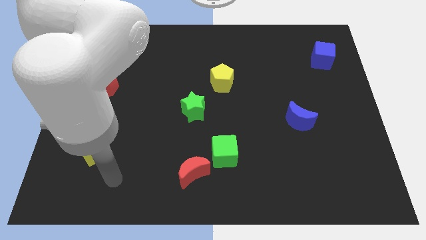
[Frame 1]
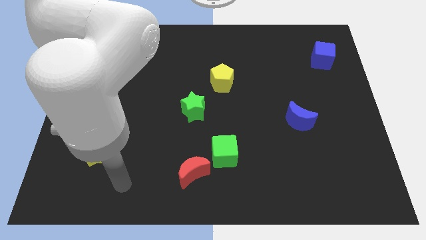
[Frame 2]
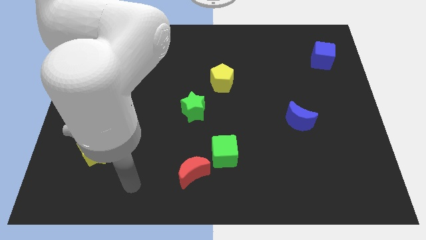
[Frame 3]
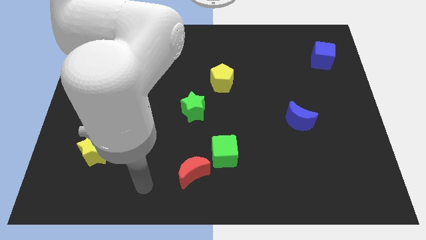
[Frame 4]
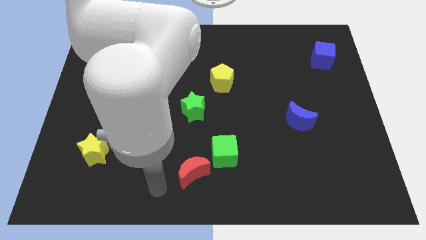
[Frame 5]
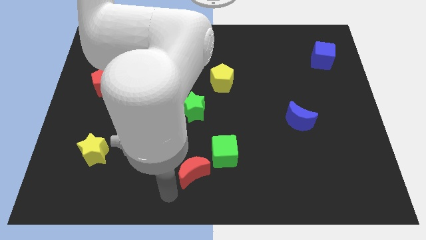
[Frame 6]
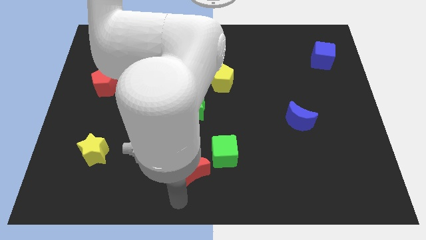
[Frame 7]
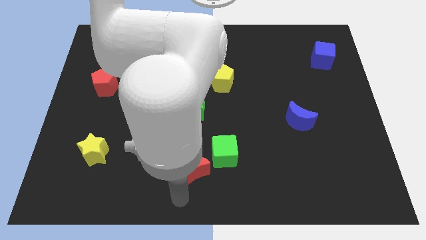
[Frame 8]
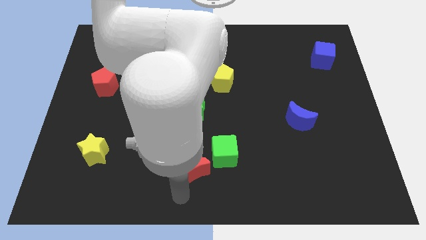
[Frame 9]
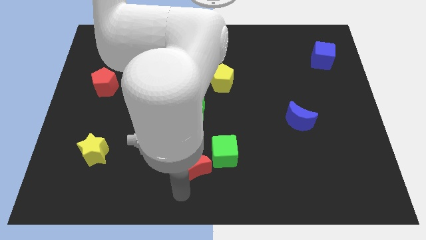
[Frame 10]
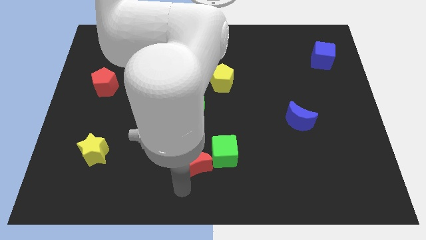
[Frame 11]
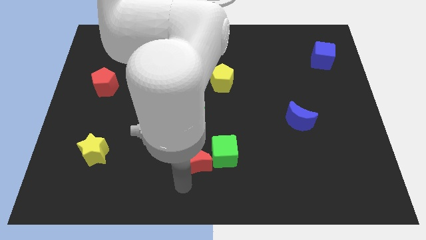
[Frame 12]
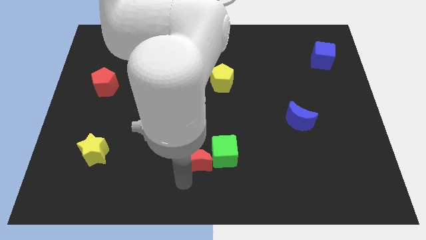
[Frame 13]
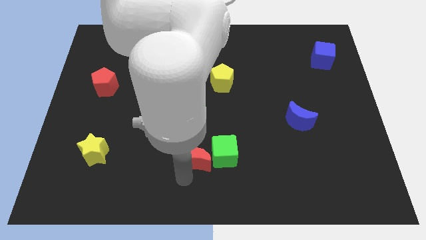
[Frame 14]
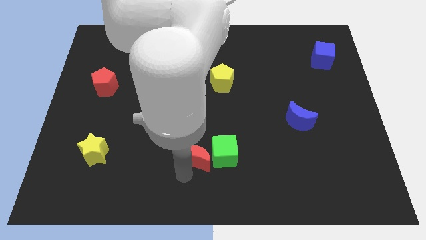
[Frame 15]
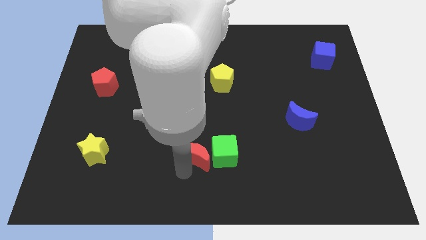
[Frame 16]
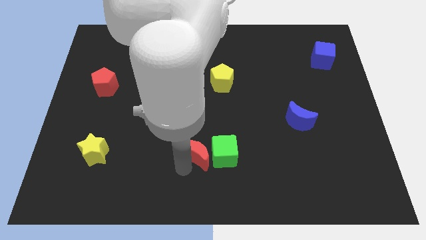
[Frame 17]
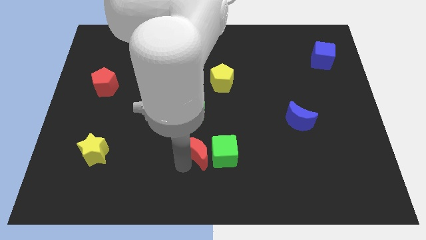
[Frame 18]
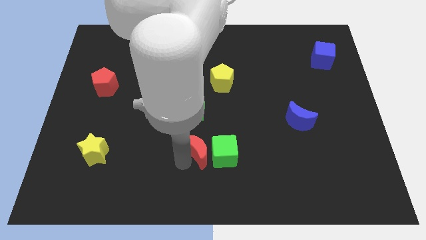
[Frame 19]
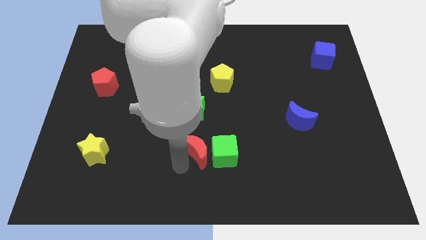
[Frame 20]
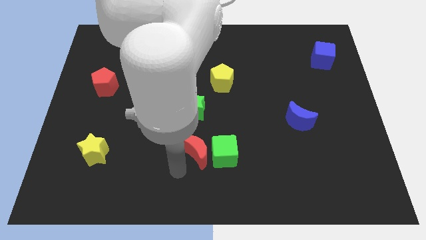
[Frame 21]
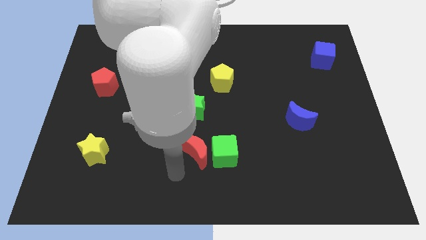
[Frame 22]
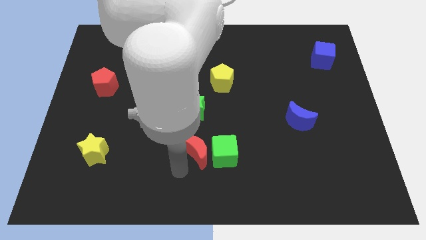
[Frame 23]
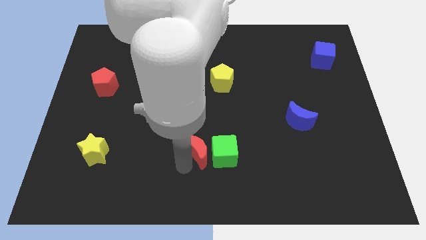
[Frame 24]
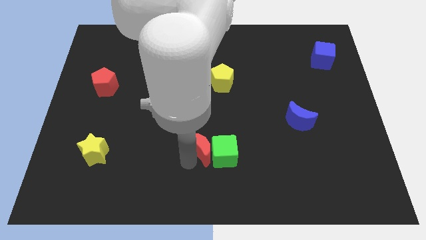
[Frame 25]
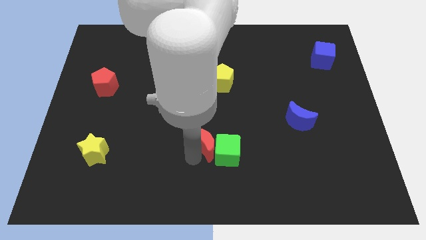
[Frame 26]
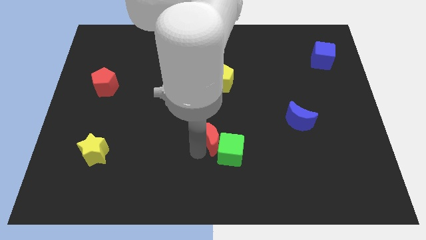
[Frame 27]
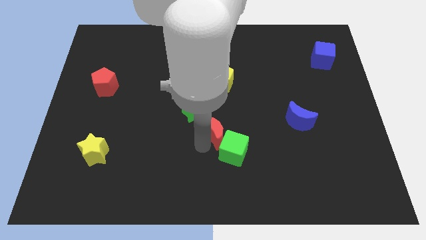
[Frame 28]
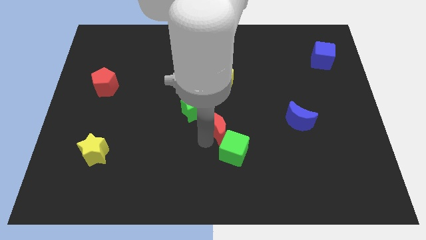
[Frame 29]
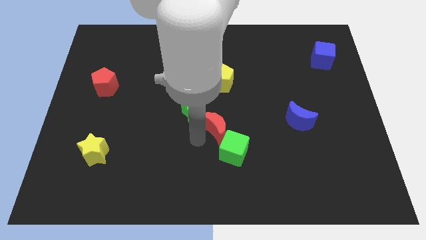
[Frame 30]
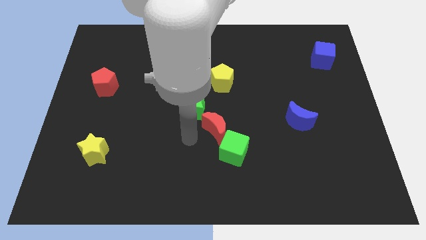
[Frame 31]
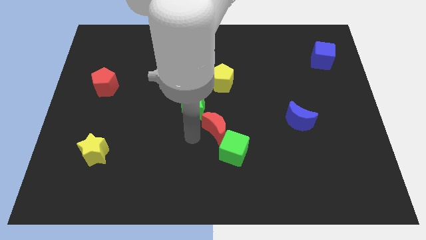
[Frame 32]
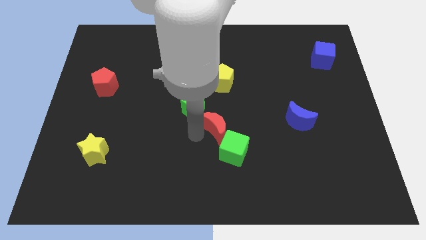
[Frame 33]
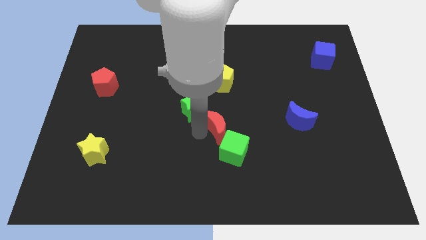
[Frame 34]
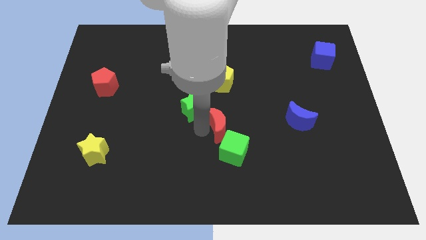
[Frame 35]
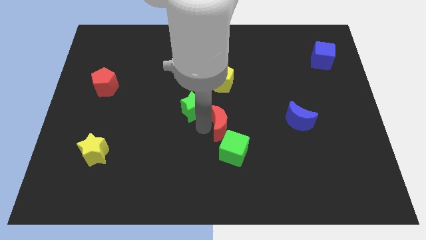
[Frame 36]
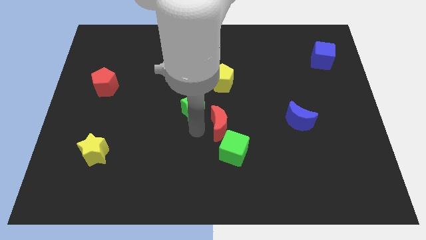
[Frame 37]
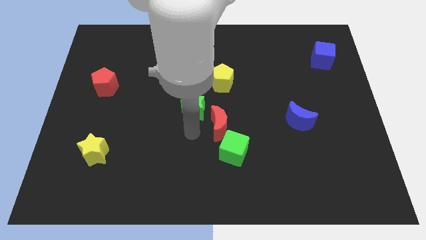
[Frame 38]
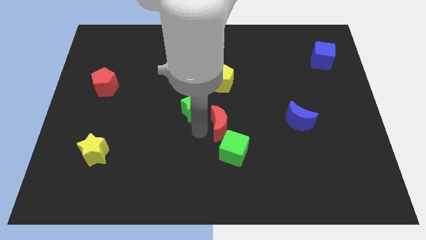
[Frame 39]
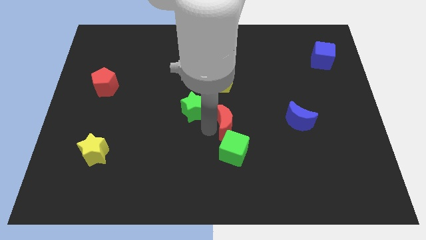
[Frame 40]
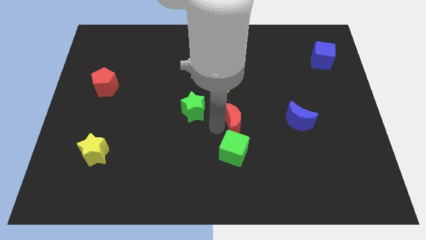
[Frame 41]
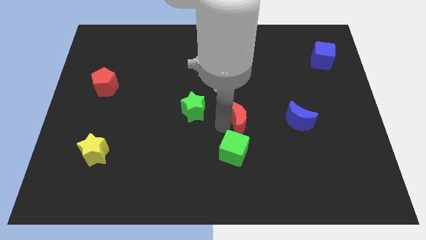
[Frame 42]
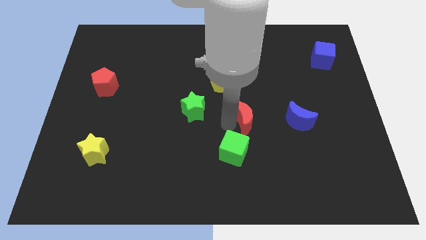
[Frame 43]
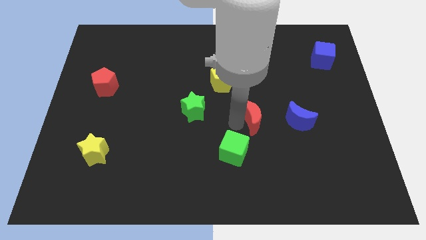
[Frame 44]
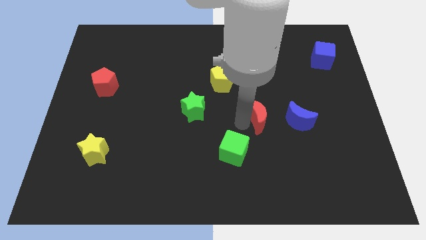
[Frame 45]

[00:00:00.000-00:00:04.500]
push the red moon upwards and then right

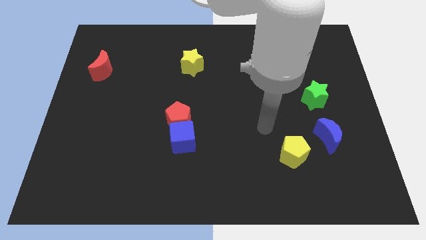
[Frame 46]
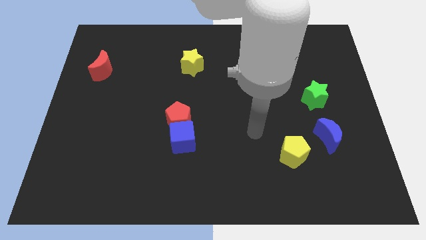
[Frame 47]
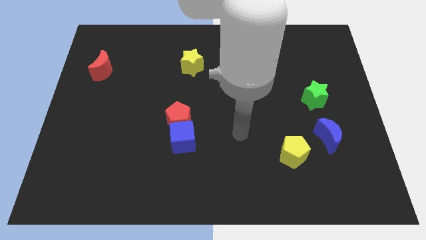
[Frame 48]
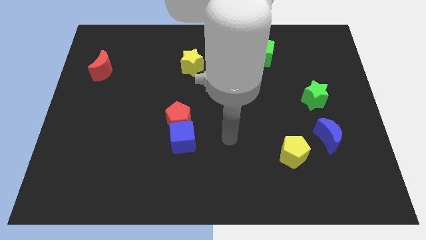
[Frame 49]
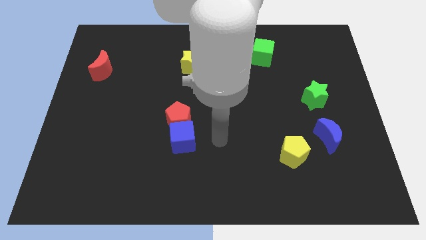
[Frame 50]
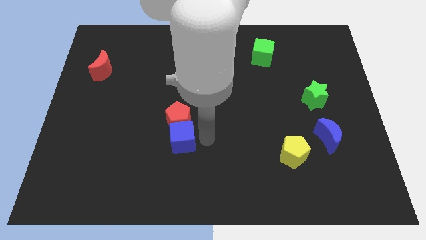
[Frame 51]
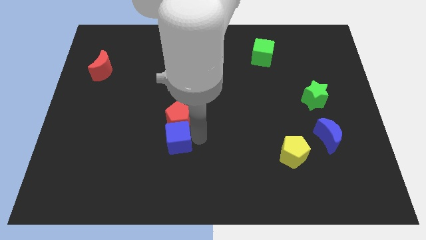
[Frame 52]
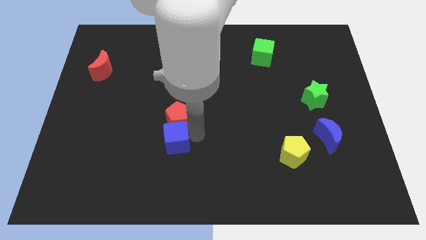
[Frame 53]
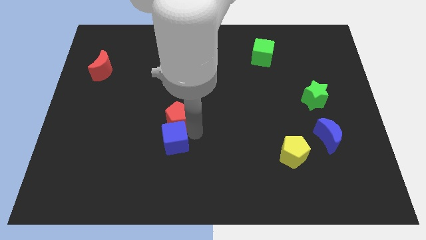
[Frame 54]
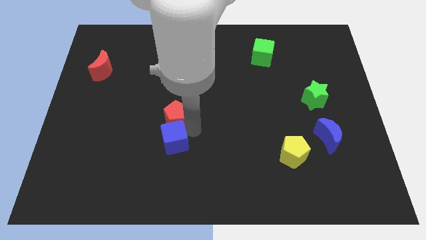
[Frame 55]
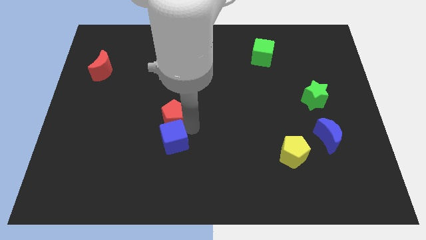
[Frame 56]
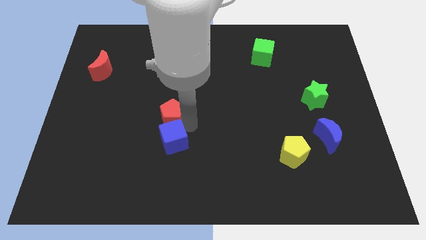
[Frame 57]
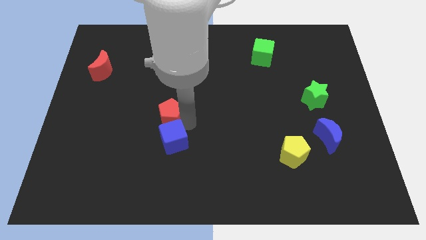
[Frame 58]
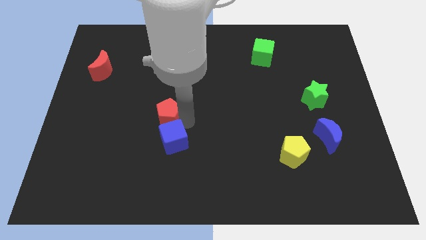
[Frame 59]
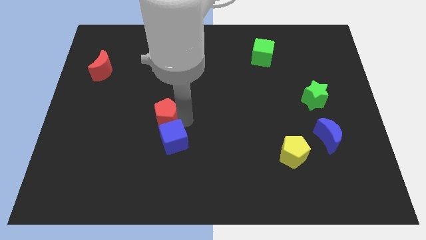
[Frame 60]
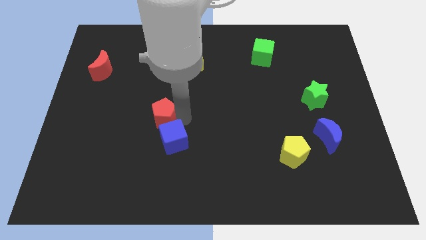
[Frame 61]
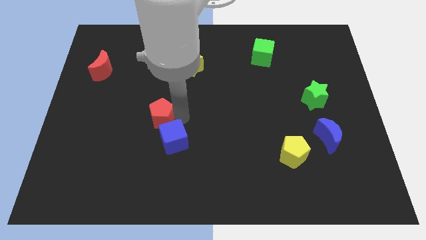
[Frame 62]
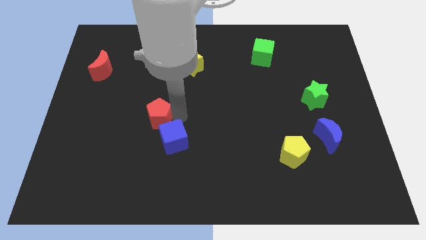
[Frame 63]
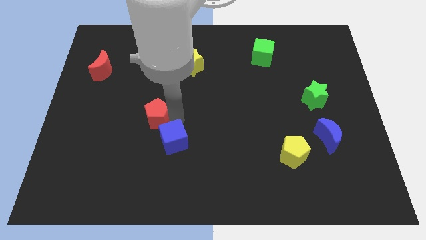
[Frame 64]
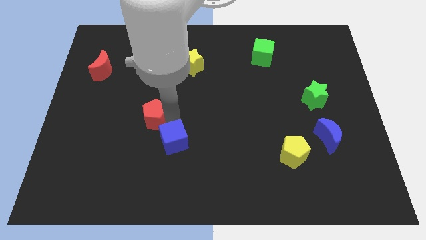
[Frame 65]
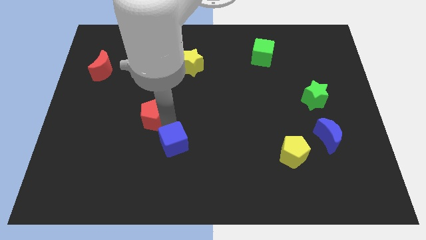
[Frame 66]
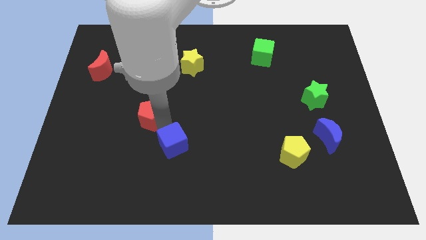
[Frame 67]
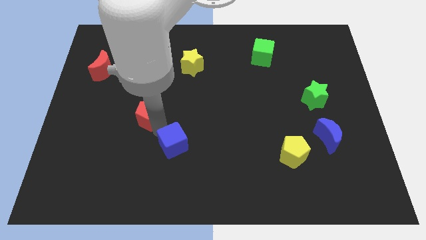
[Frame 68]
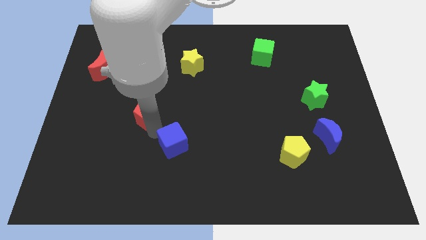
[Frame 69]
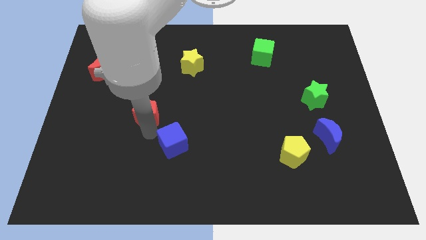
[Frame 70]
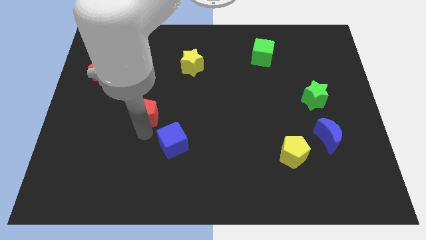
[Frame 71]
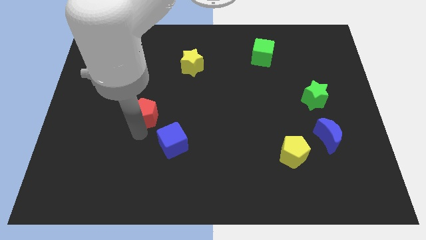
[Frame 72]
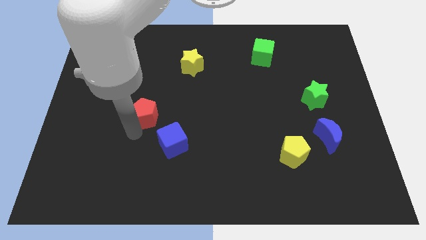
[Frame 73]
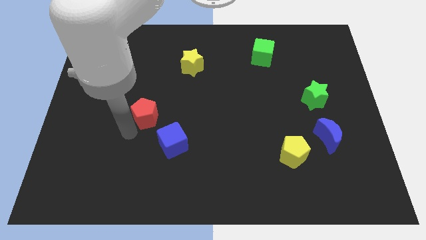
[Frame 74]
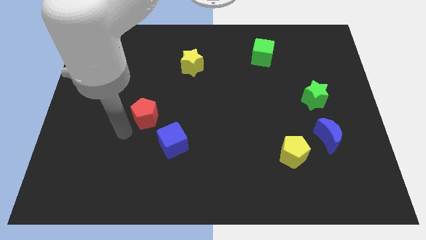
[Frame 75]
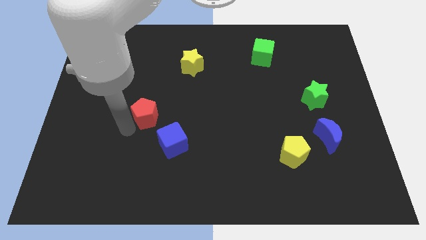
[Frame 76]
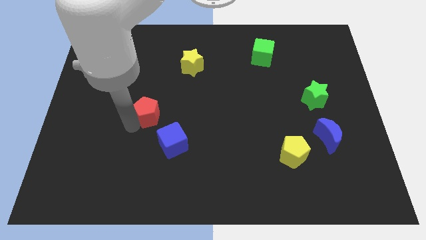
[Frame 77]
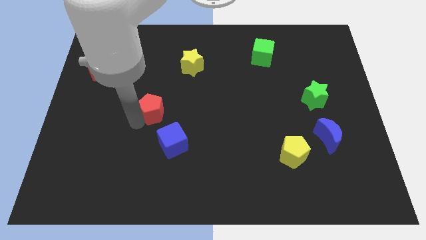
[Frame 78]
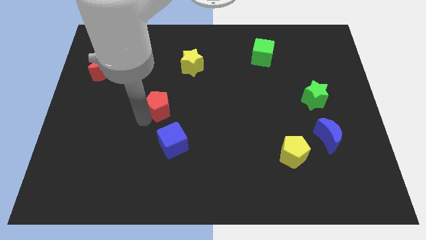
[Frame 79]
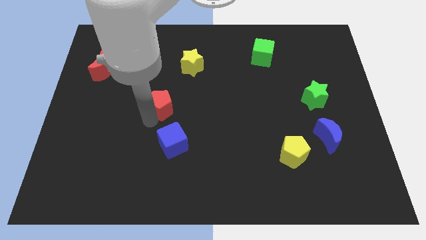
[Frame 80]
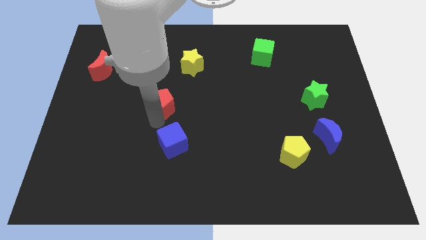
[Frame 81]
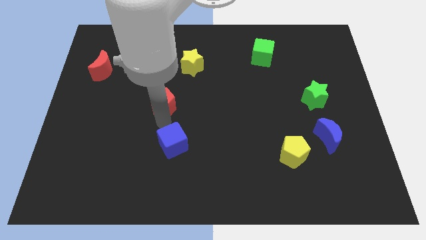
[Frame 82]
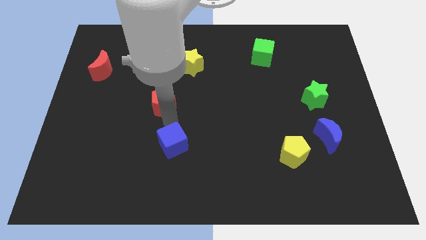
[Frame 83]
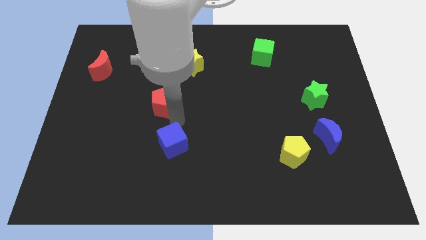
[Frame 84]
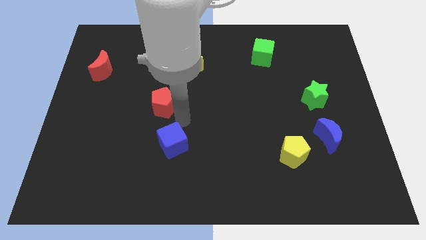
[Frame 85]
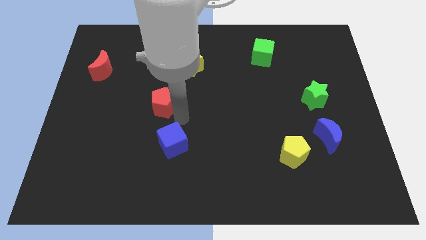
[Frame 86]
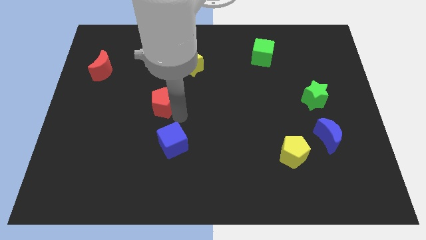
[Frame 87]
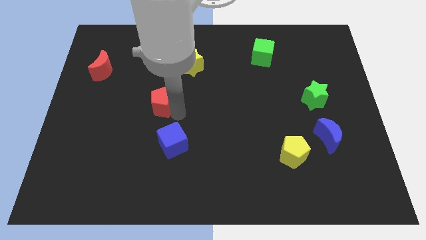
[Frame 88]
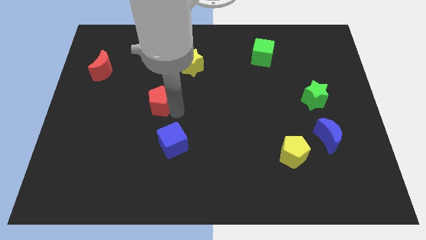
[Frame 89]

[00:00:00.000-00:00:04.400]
move the red pentagon upwards and to the left a little bit
